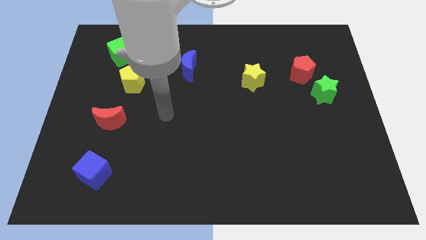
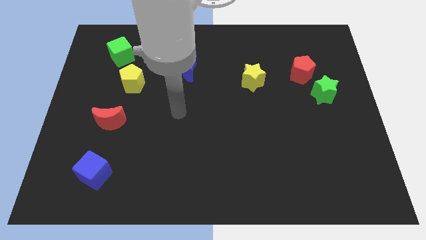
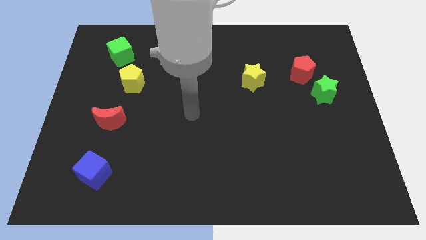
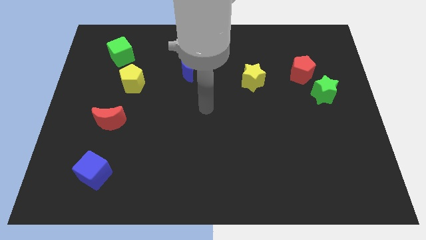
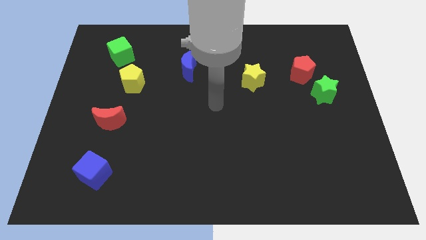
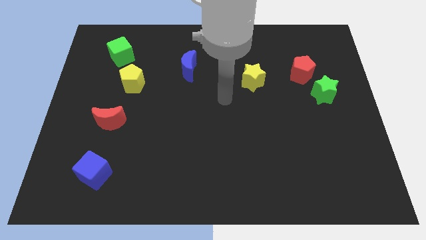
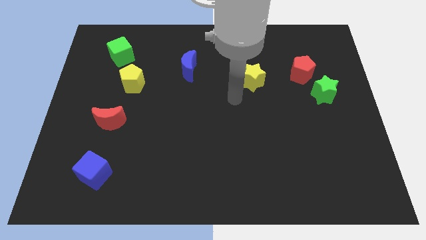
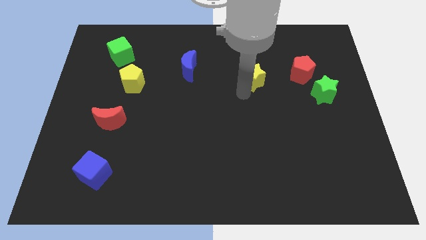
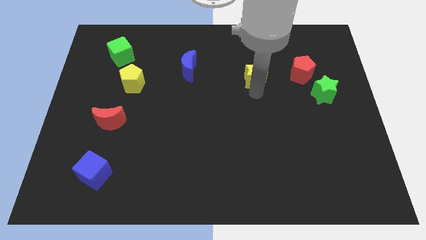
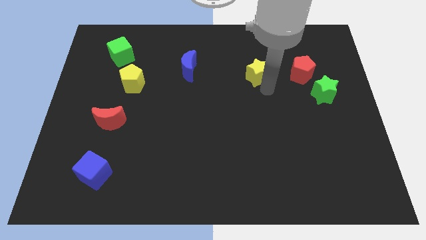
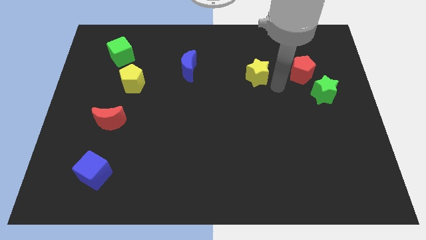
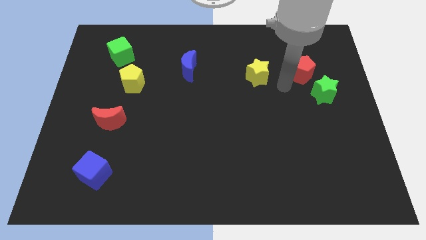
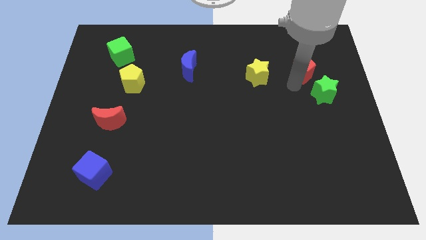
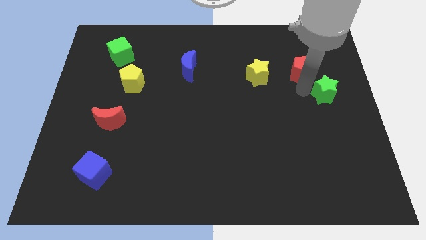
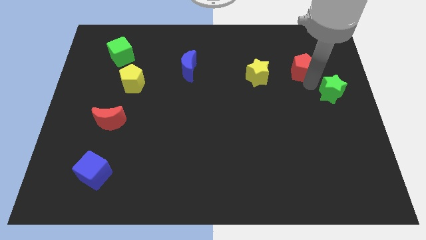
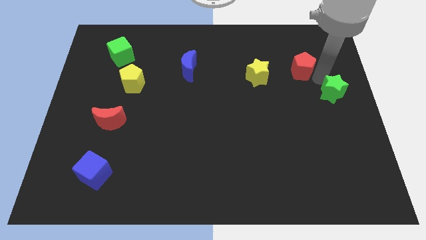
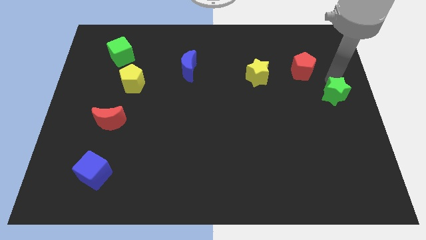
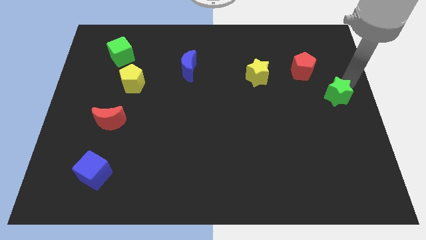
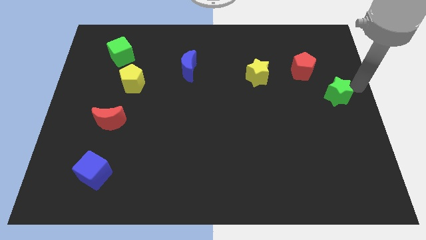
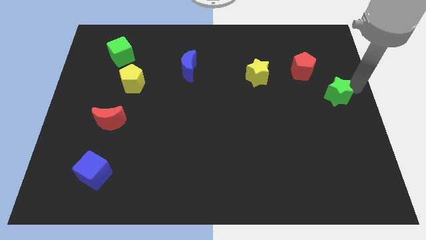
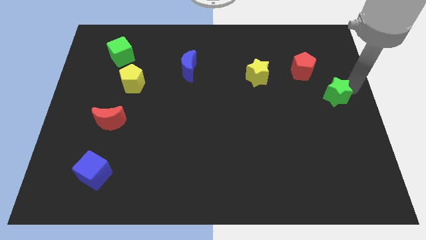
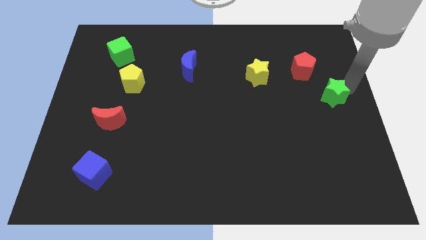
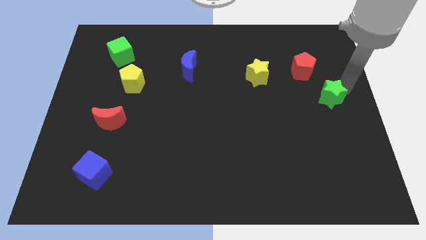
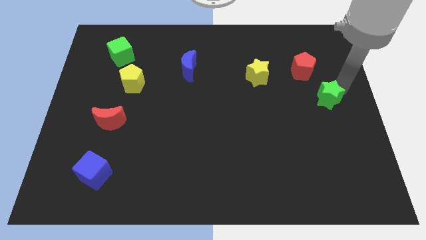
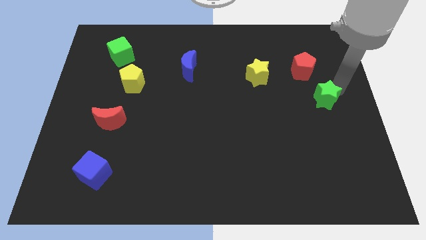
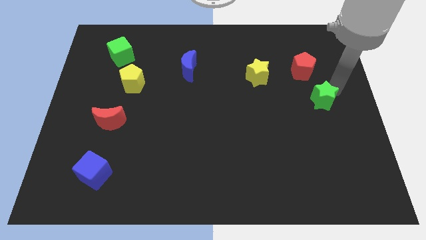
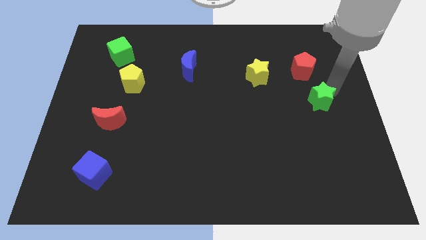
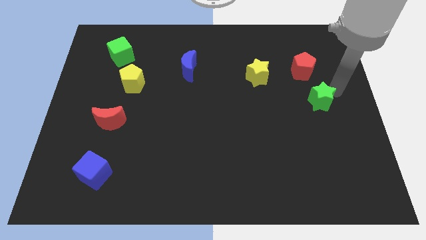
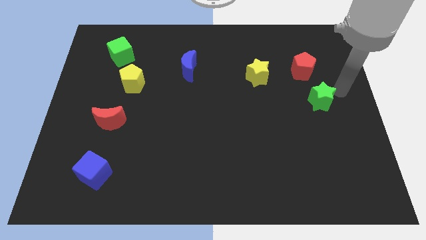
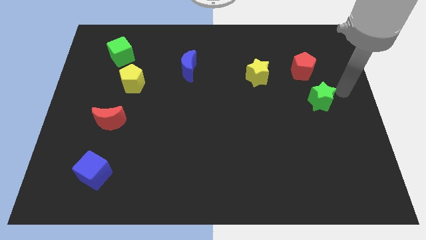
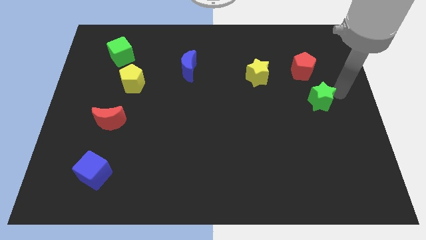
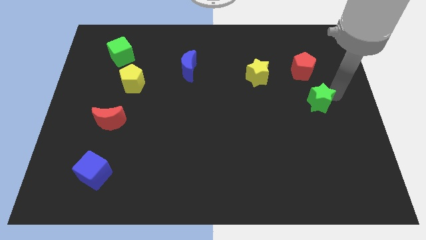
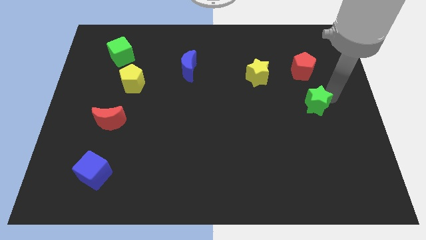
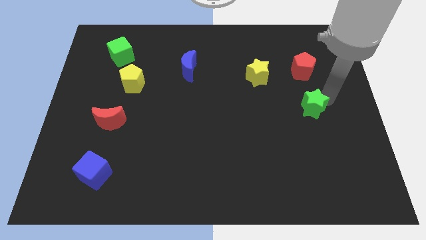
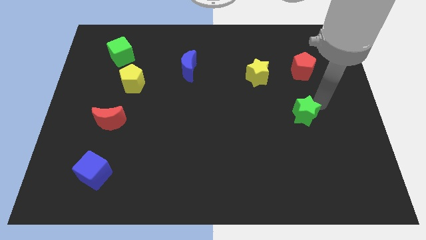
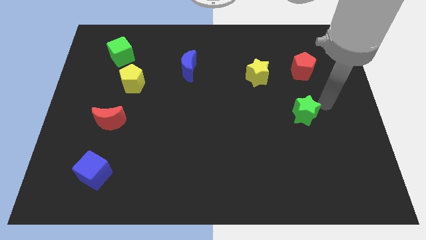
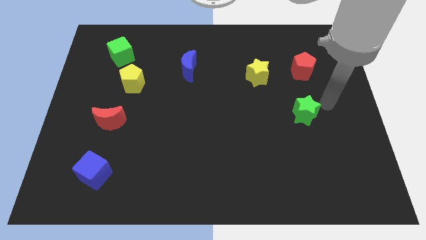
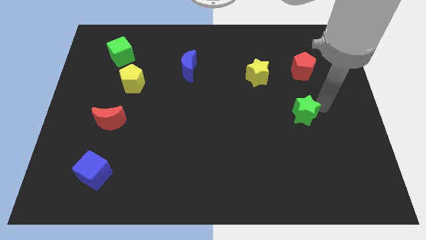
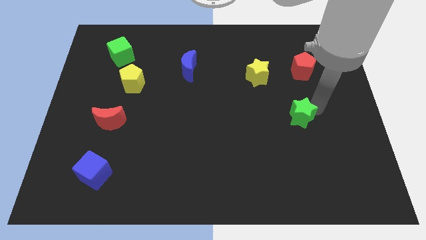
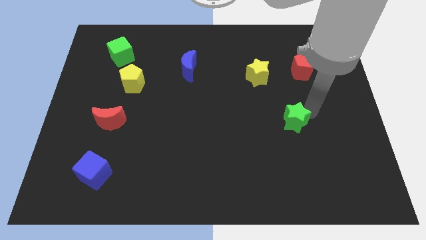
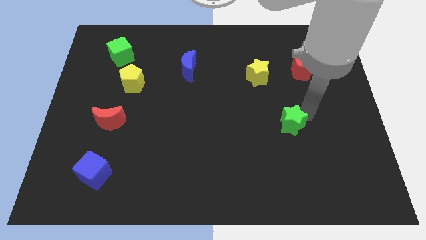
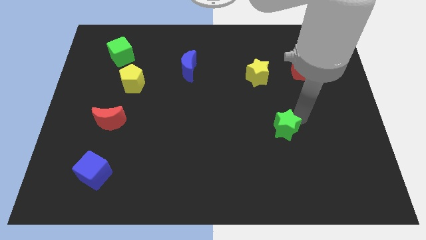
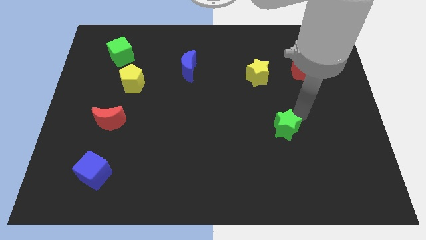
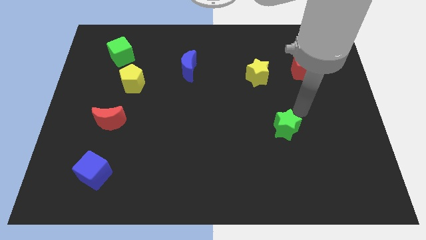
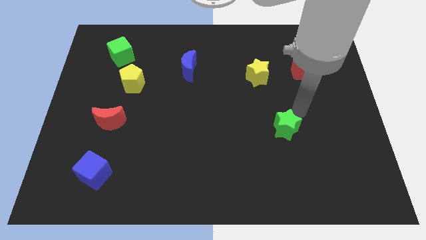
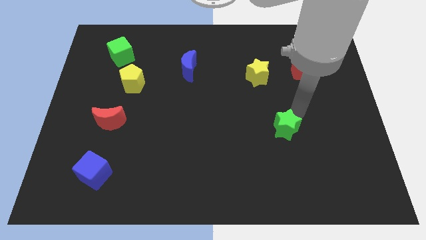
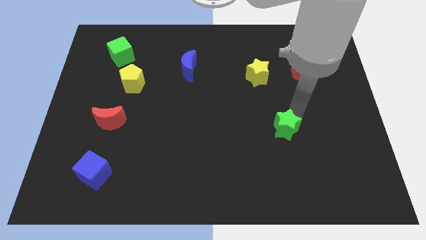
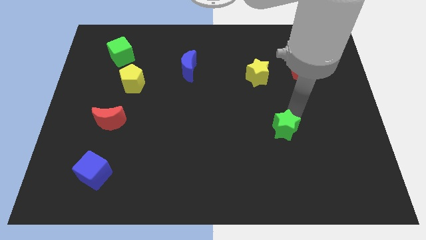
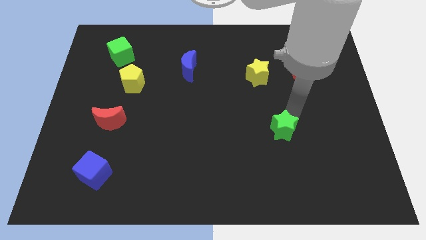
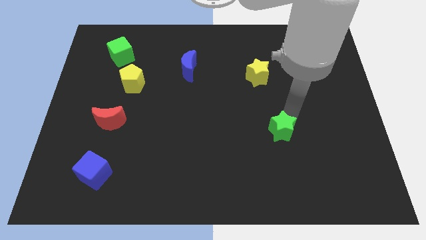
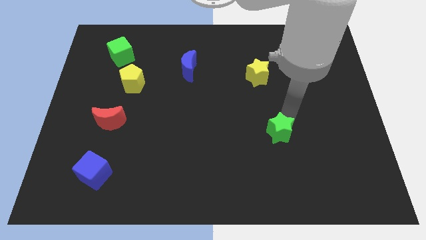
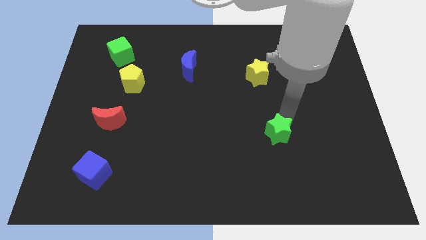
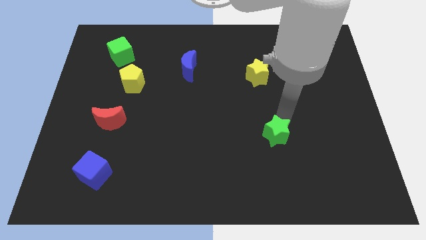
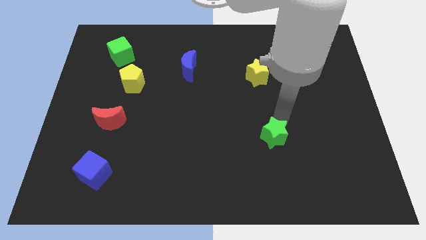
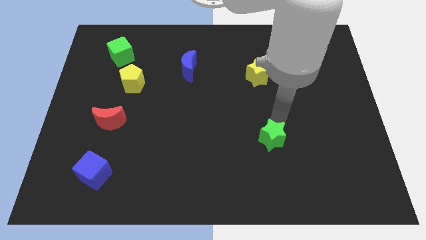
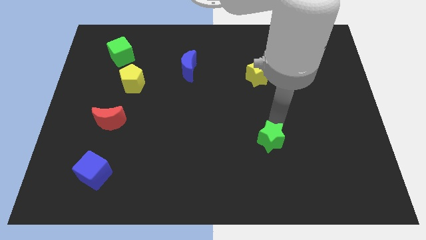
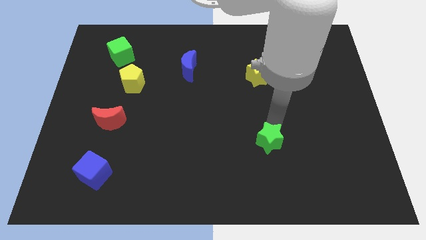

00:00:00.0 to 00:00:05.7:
push the green star downwards and to the left

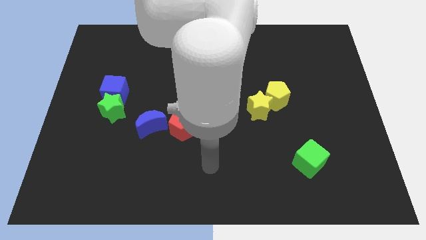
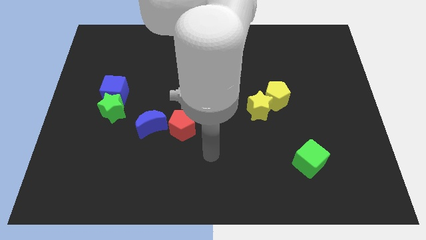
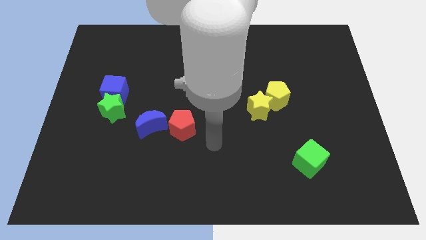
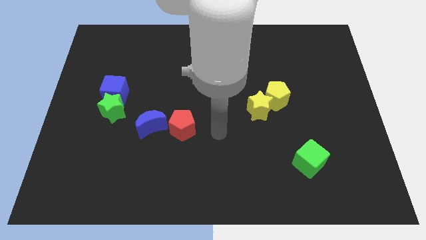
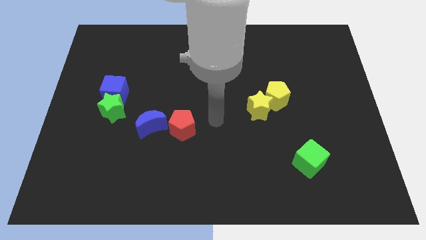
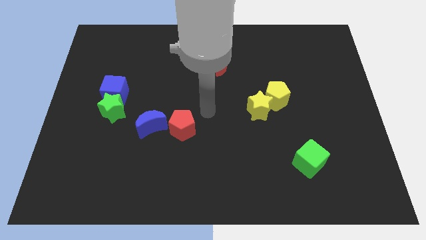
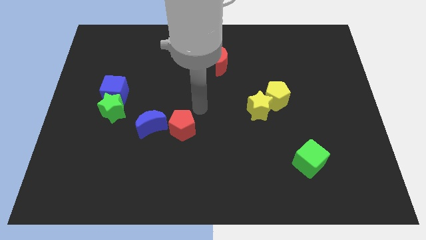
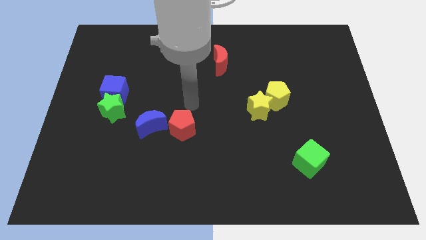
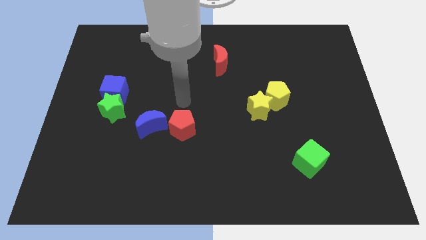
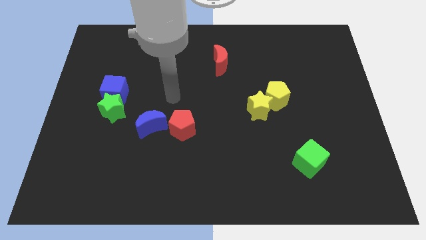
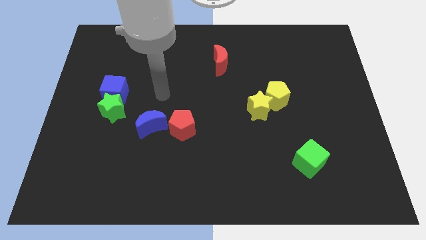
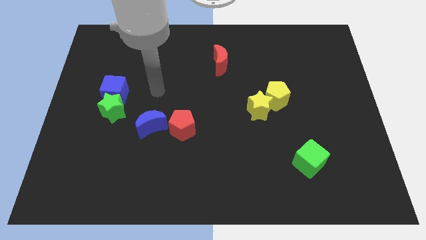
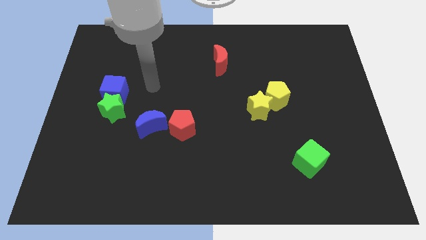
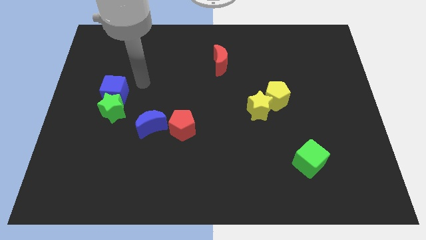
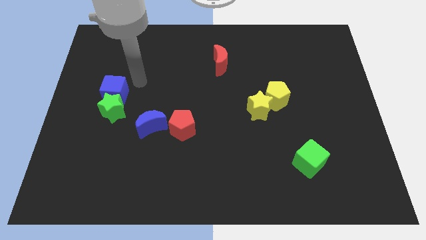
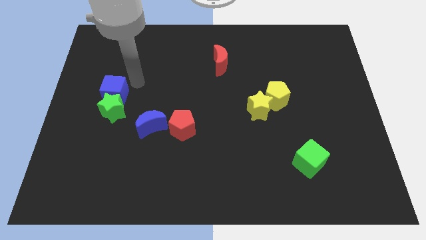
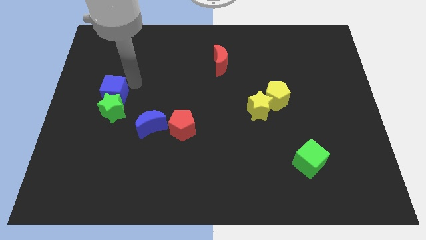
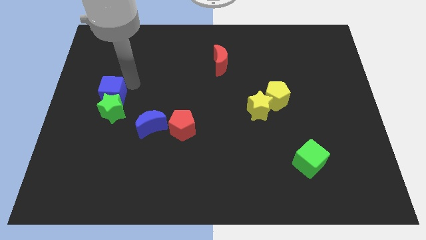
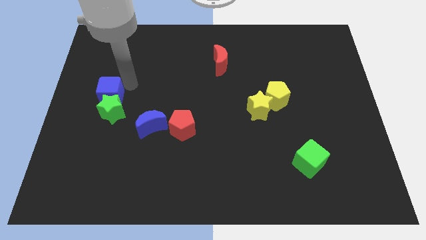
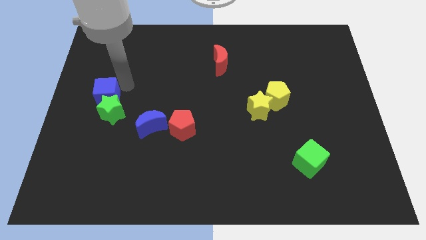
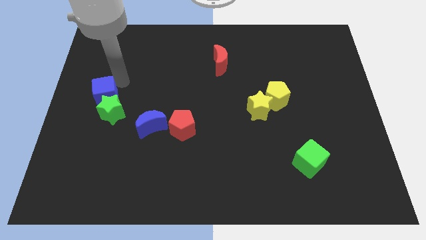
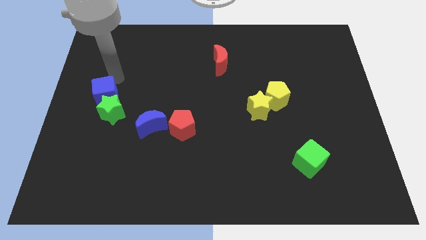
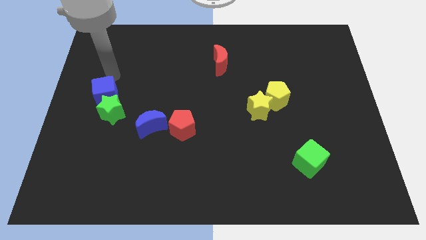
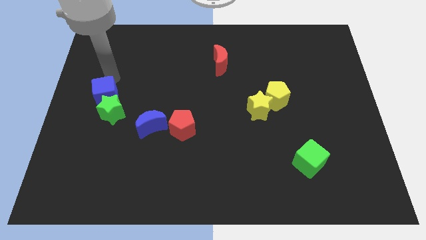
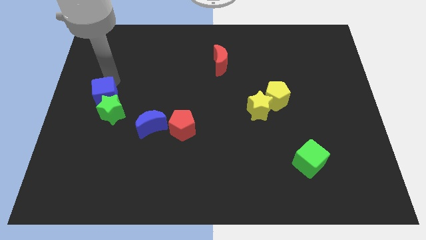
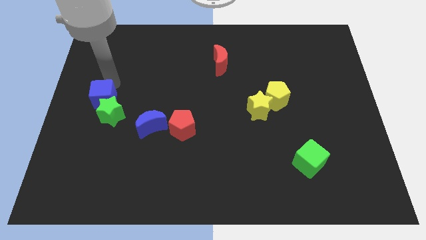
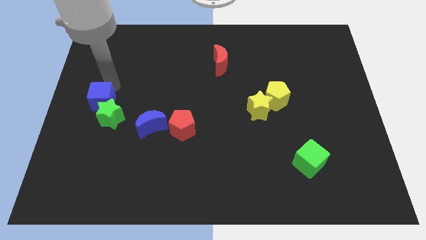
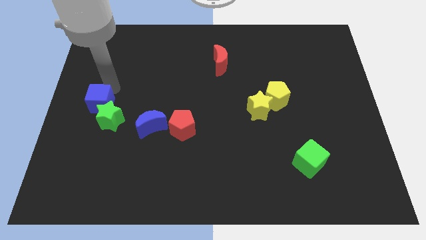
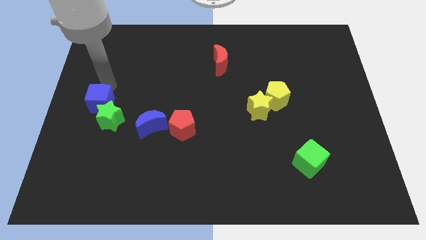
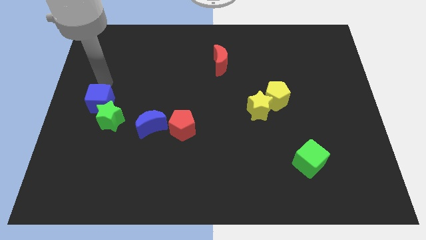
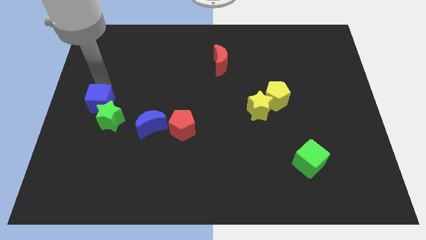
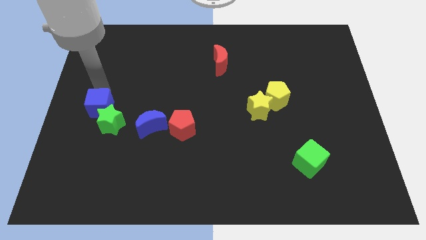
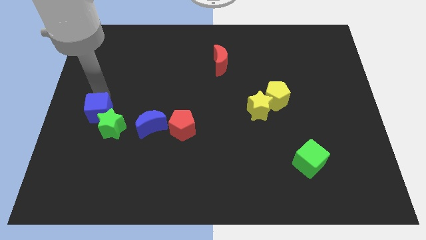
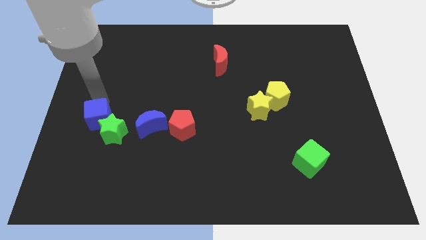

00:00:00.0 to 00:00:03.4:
move the blue cube down a little
